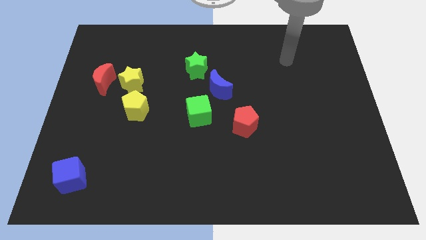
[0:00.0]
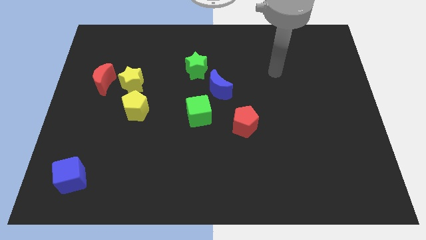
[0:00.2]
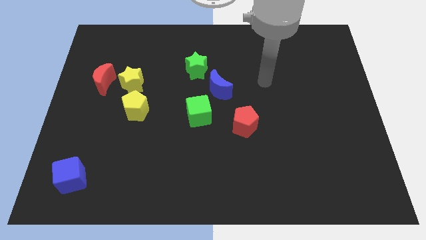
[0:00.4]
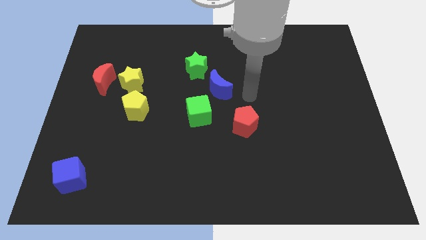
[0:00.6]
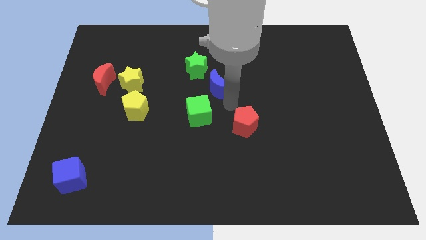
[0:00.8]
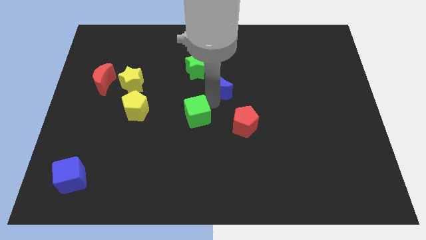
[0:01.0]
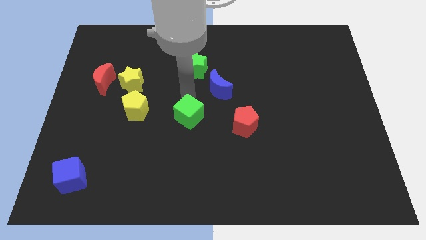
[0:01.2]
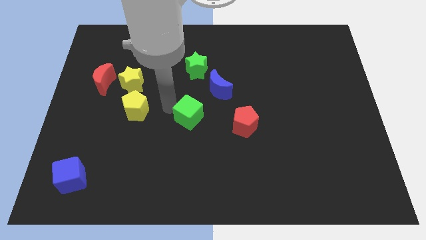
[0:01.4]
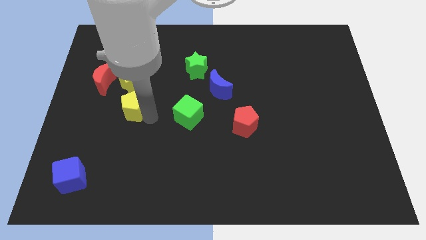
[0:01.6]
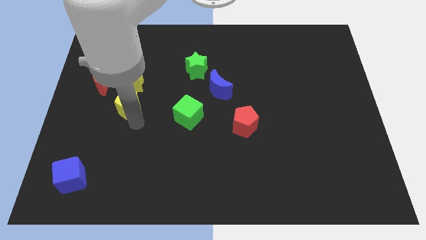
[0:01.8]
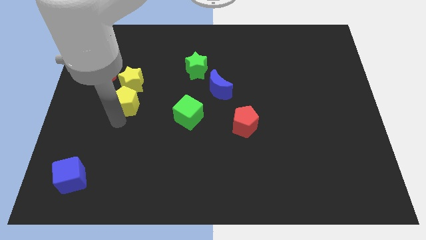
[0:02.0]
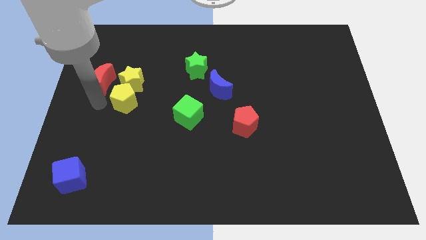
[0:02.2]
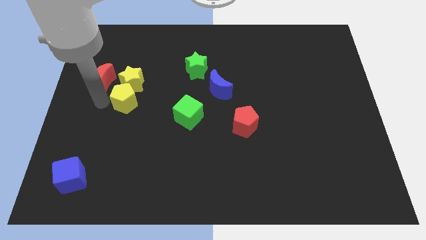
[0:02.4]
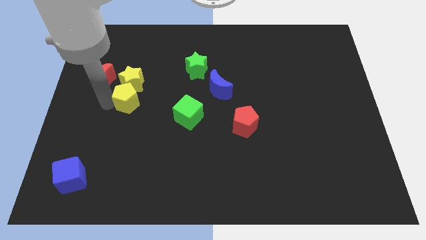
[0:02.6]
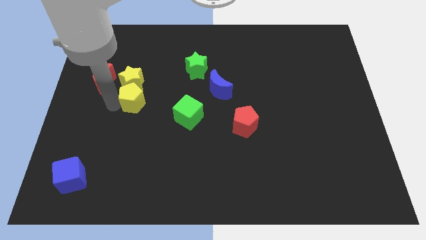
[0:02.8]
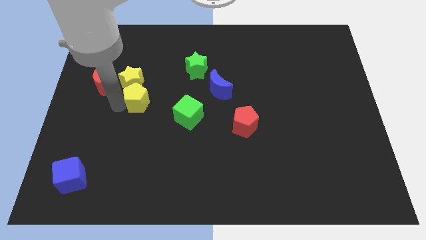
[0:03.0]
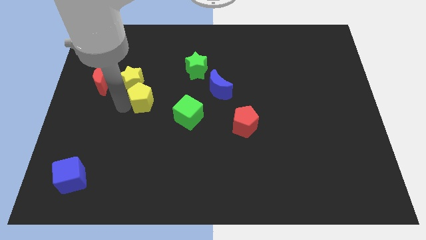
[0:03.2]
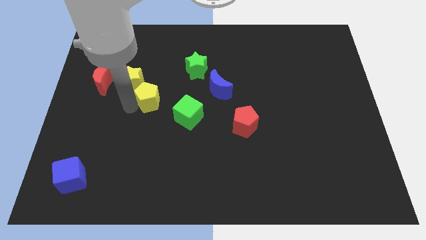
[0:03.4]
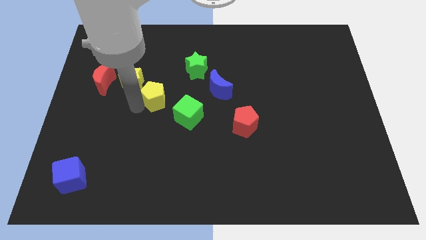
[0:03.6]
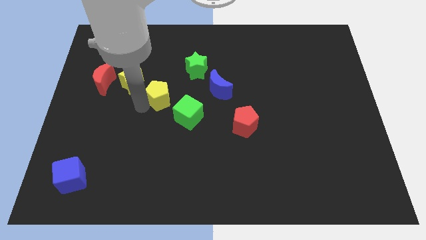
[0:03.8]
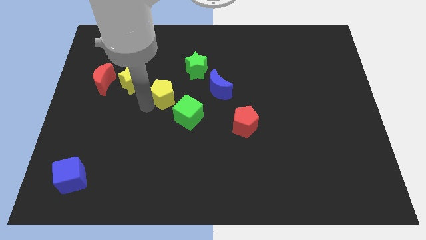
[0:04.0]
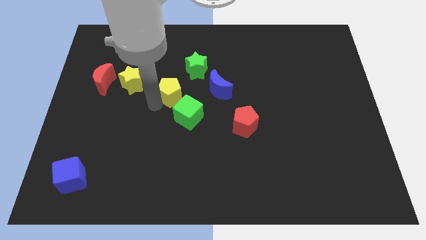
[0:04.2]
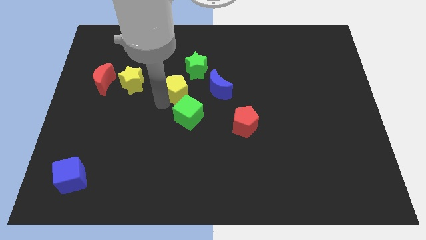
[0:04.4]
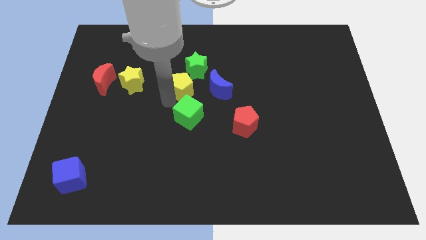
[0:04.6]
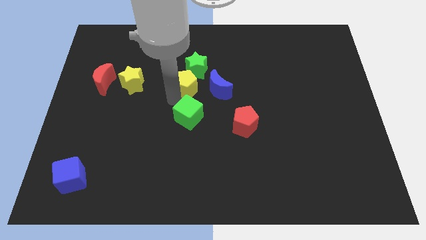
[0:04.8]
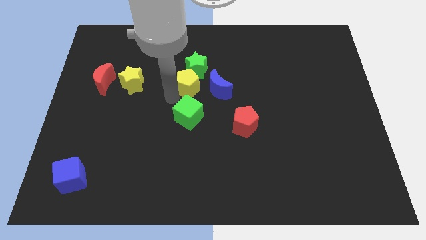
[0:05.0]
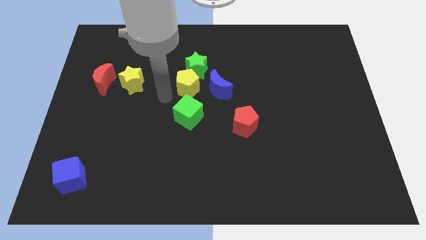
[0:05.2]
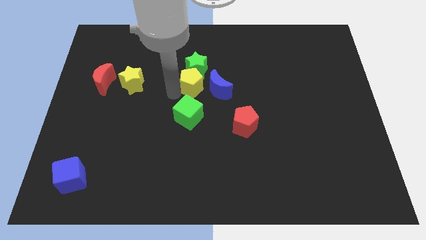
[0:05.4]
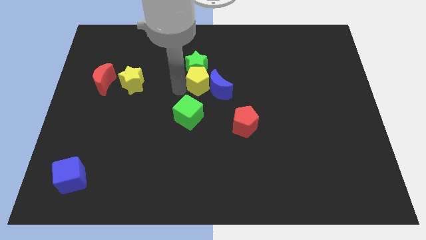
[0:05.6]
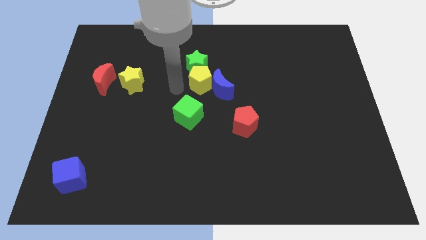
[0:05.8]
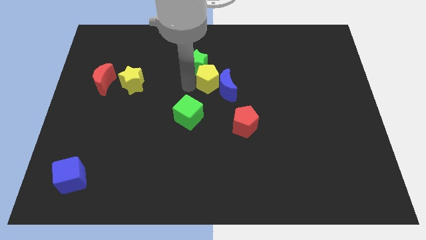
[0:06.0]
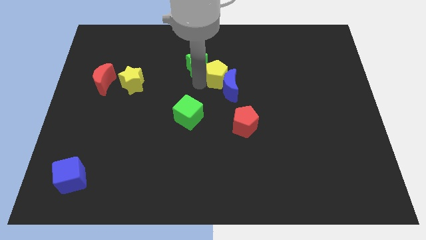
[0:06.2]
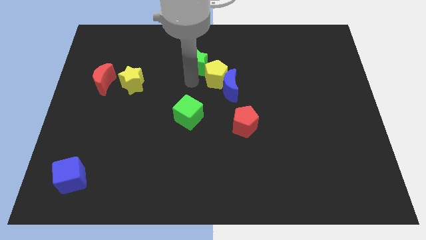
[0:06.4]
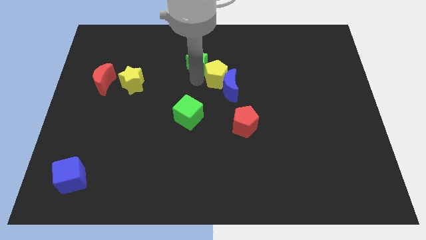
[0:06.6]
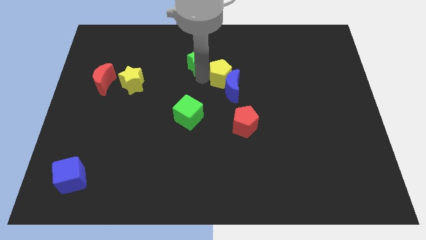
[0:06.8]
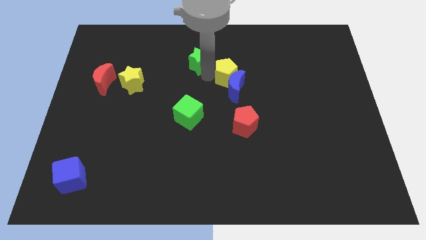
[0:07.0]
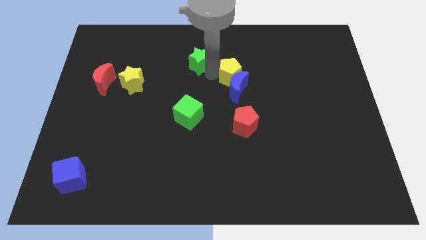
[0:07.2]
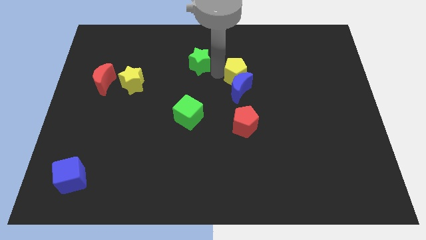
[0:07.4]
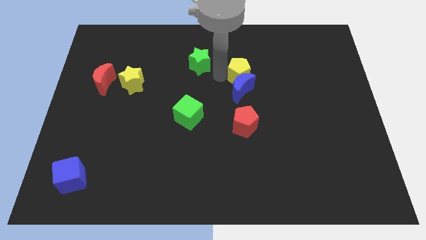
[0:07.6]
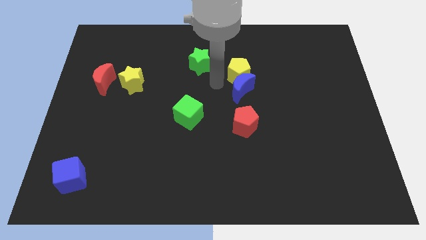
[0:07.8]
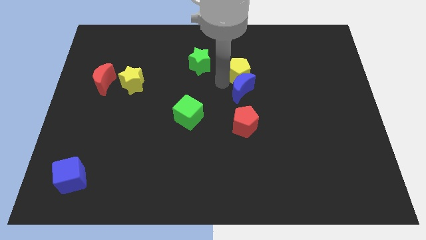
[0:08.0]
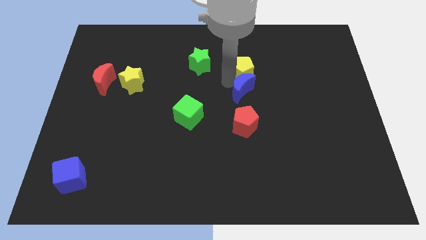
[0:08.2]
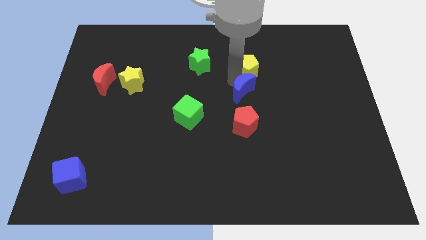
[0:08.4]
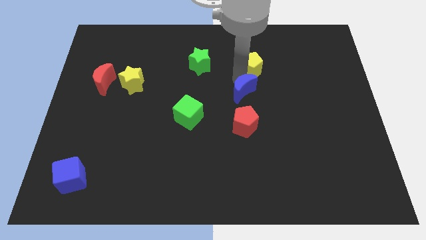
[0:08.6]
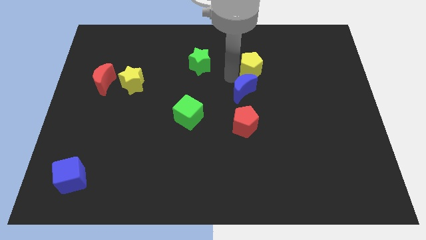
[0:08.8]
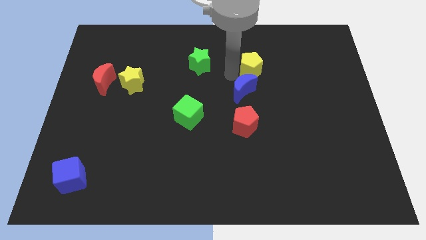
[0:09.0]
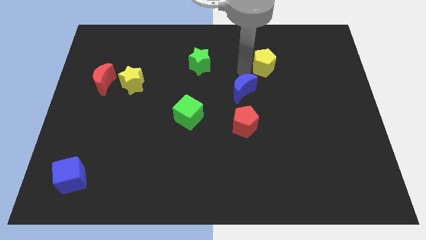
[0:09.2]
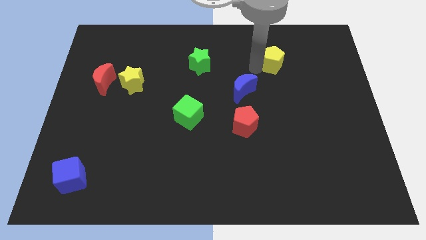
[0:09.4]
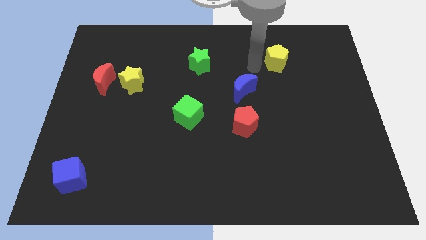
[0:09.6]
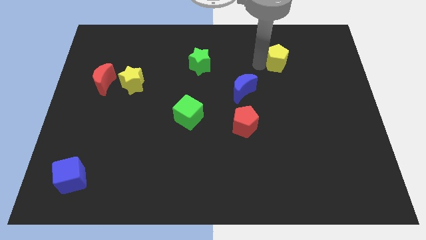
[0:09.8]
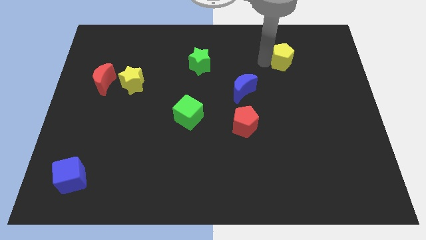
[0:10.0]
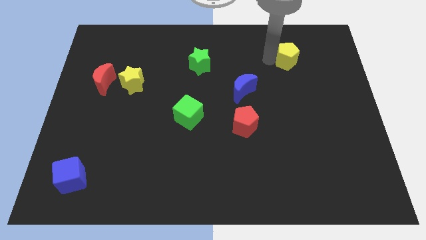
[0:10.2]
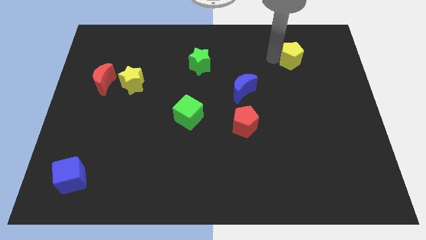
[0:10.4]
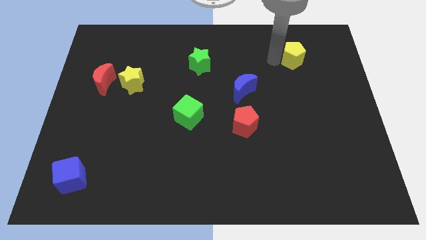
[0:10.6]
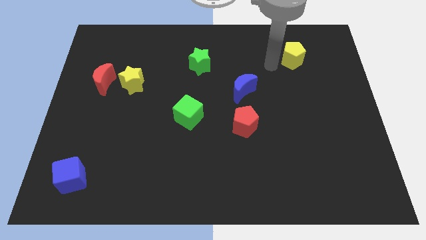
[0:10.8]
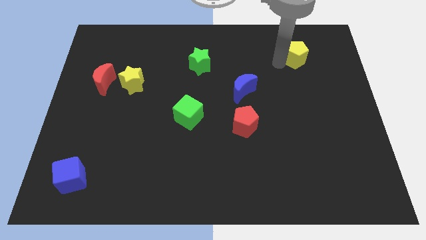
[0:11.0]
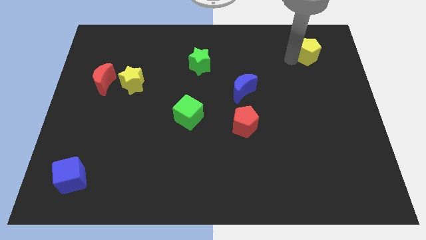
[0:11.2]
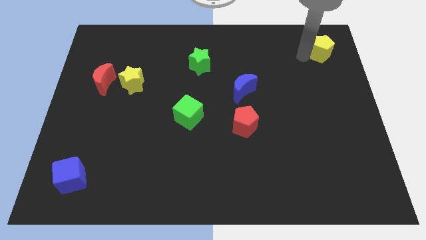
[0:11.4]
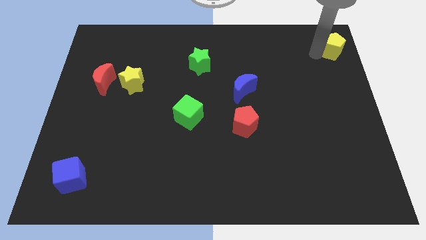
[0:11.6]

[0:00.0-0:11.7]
move the yellow pentagon to the top right of the board
